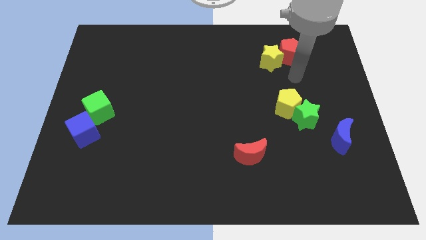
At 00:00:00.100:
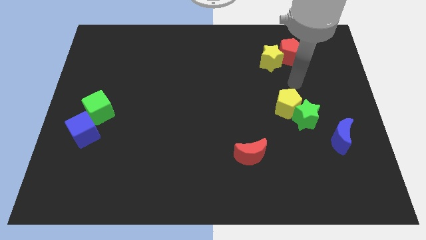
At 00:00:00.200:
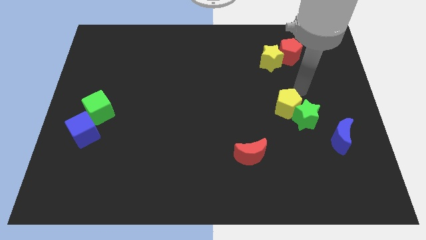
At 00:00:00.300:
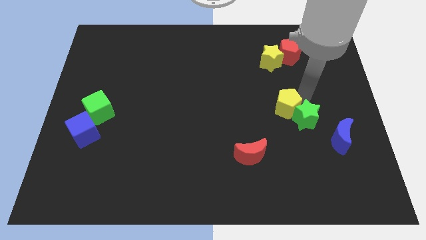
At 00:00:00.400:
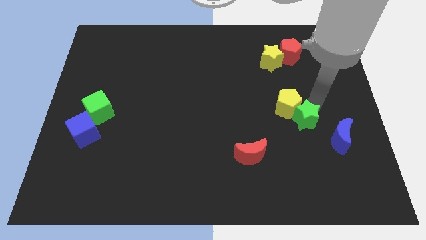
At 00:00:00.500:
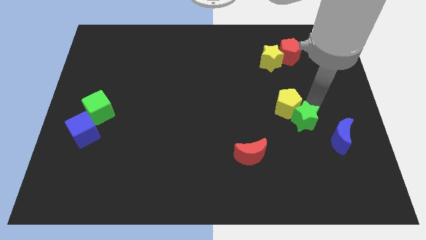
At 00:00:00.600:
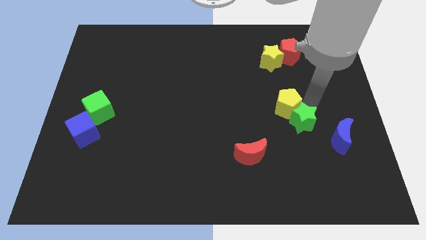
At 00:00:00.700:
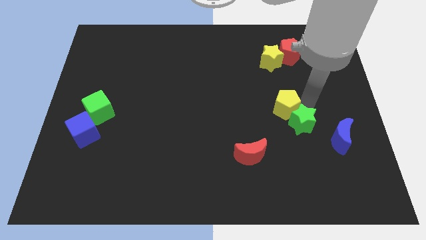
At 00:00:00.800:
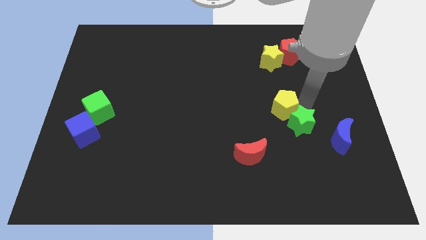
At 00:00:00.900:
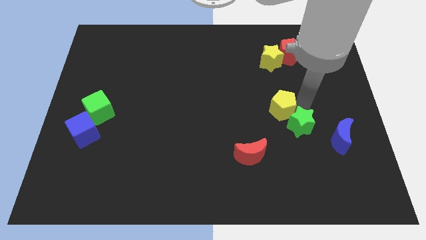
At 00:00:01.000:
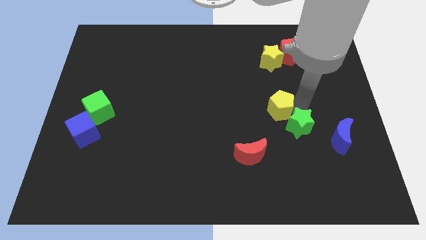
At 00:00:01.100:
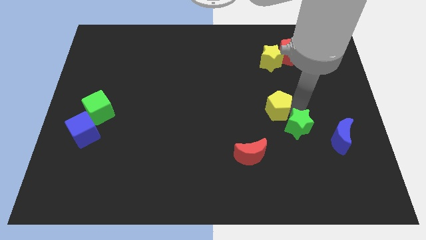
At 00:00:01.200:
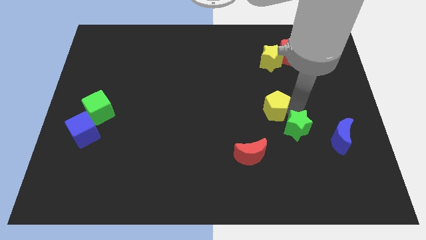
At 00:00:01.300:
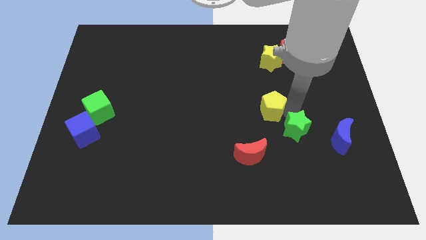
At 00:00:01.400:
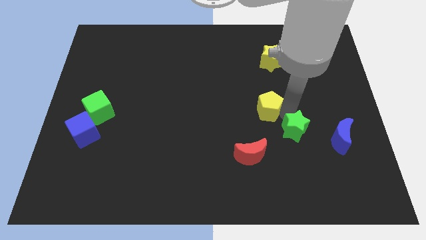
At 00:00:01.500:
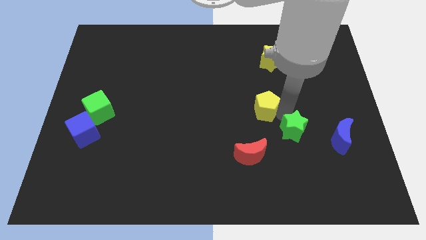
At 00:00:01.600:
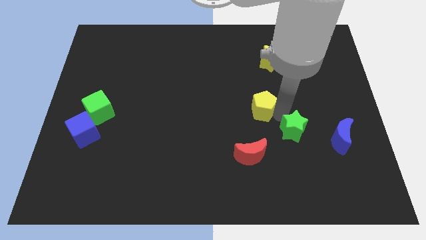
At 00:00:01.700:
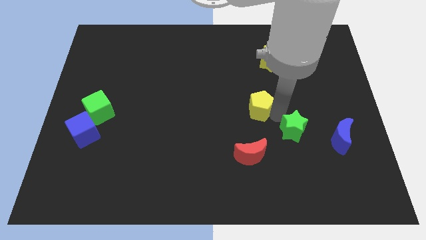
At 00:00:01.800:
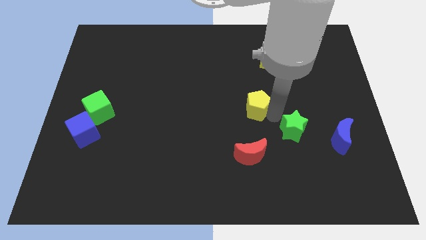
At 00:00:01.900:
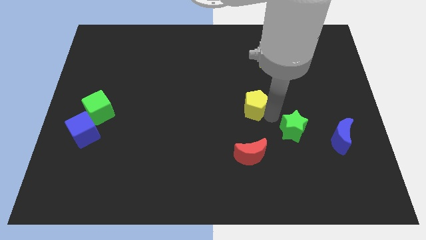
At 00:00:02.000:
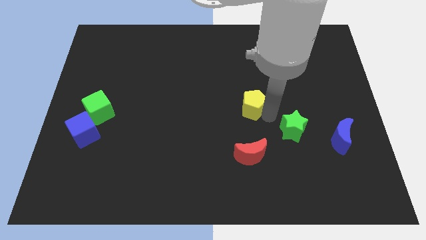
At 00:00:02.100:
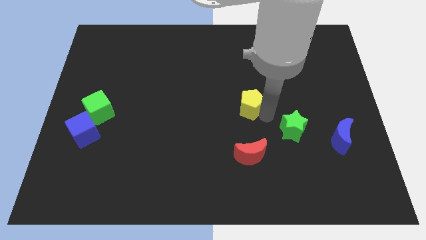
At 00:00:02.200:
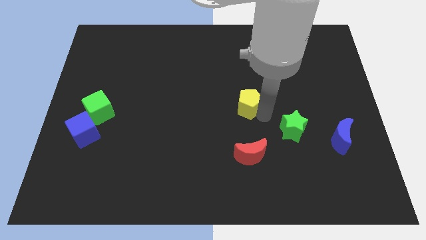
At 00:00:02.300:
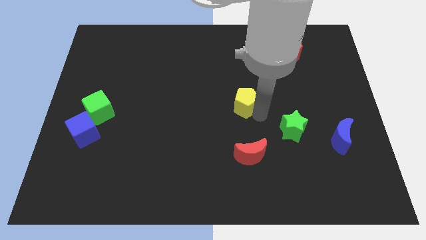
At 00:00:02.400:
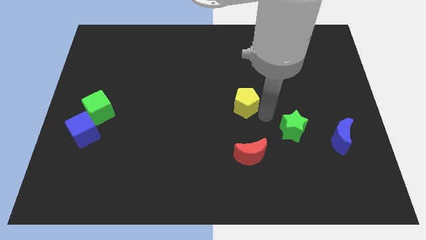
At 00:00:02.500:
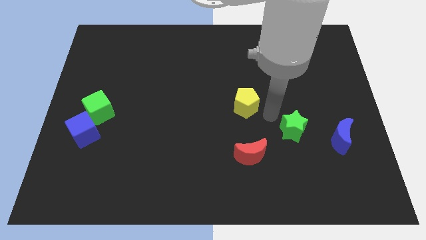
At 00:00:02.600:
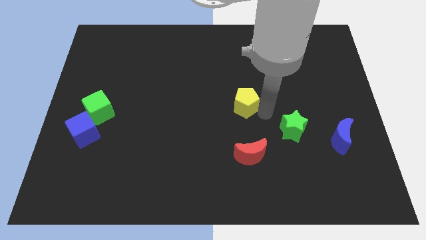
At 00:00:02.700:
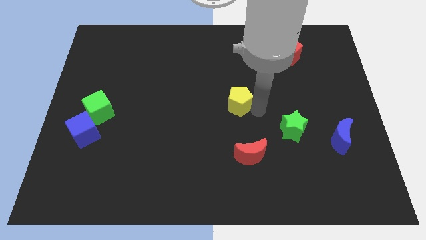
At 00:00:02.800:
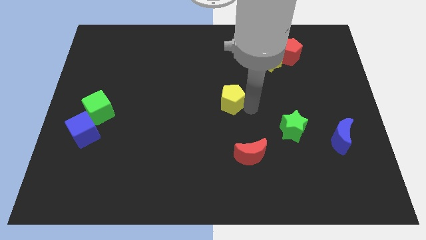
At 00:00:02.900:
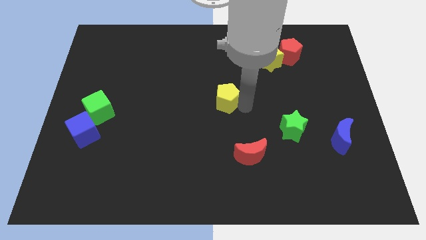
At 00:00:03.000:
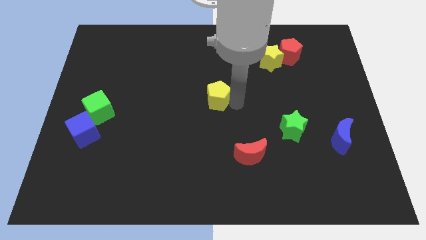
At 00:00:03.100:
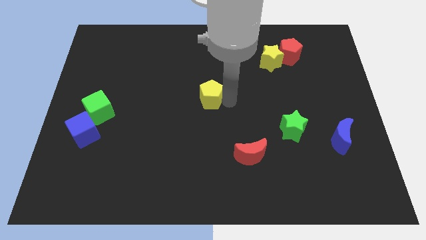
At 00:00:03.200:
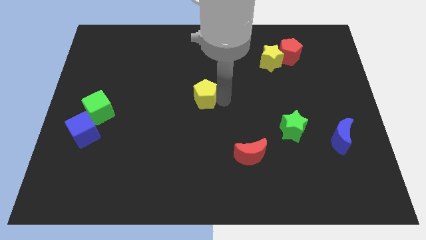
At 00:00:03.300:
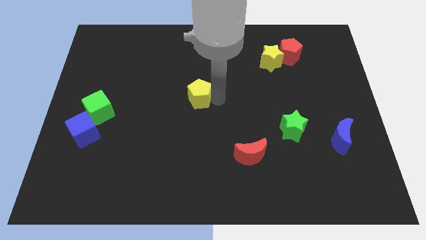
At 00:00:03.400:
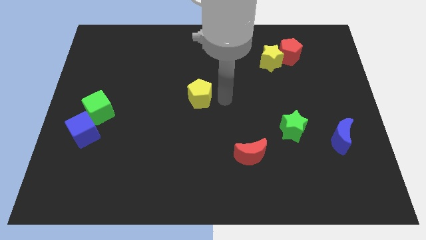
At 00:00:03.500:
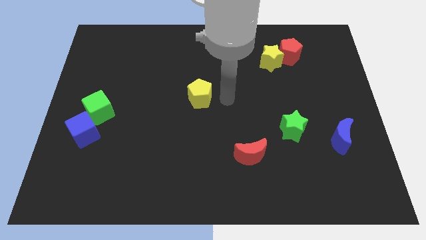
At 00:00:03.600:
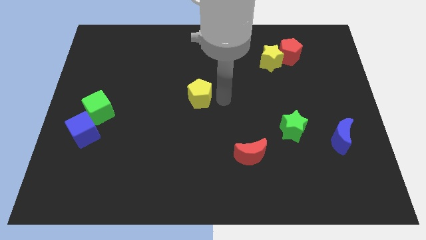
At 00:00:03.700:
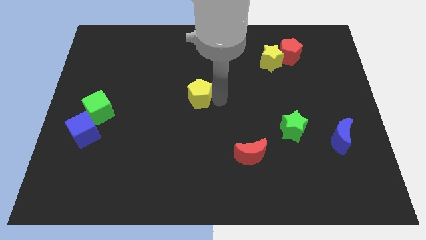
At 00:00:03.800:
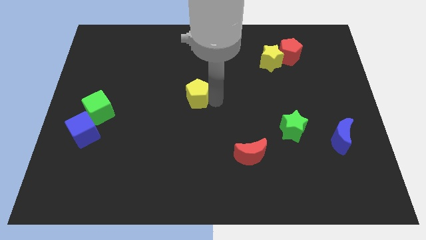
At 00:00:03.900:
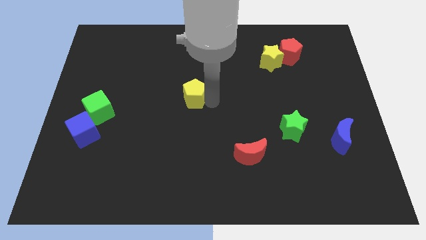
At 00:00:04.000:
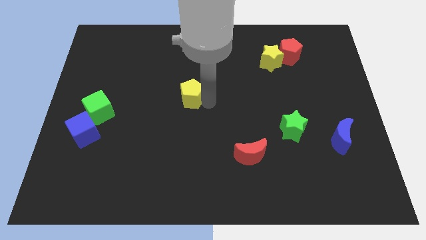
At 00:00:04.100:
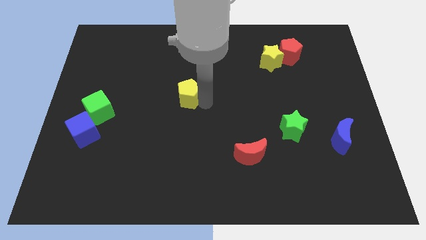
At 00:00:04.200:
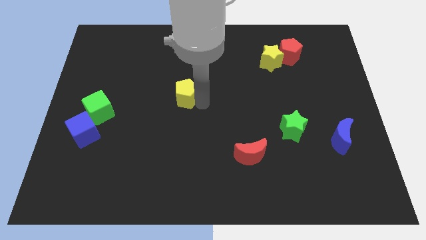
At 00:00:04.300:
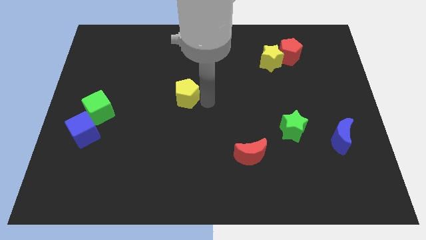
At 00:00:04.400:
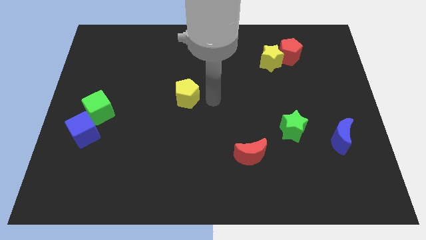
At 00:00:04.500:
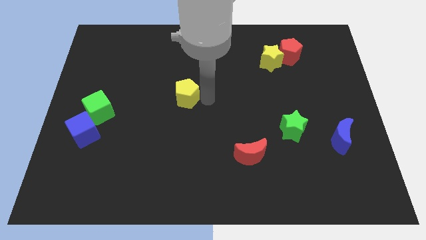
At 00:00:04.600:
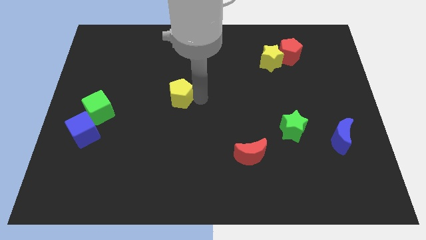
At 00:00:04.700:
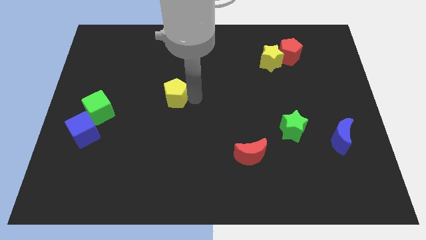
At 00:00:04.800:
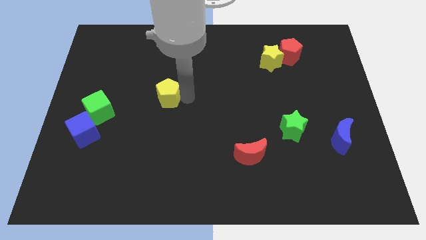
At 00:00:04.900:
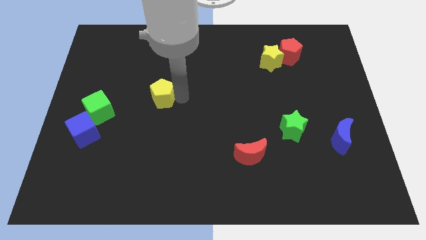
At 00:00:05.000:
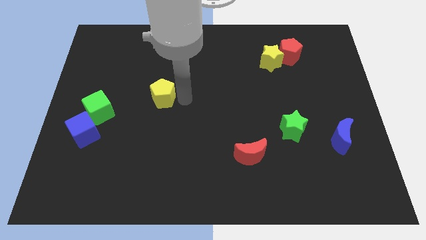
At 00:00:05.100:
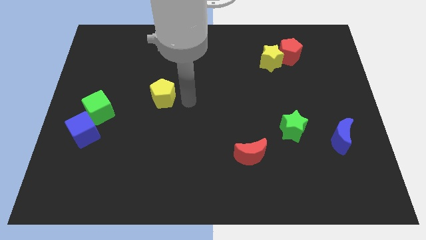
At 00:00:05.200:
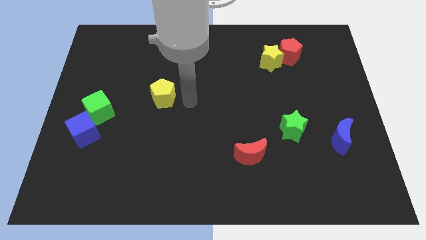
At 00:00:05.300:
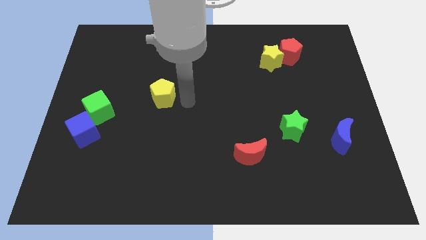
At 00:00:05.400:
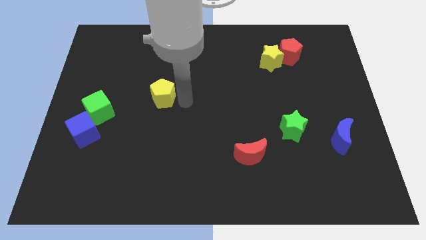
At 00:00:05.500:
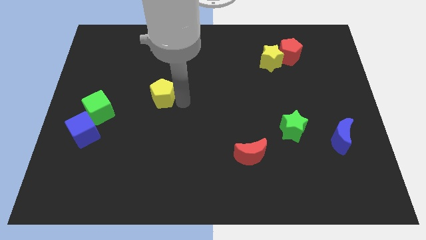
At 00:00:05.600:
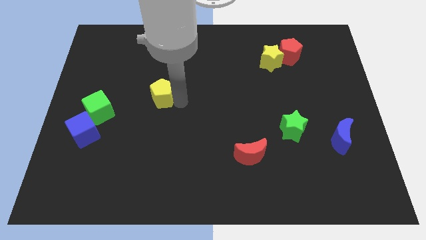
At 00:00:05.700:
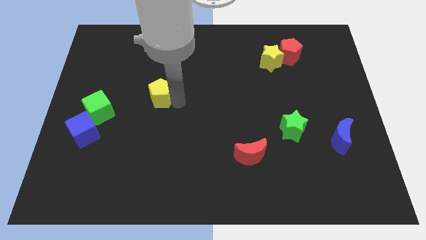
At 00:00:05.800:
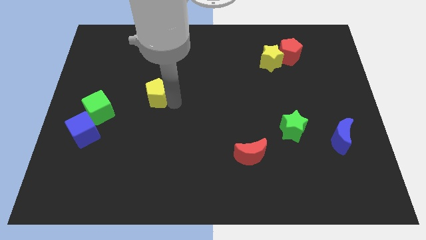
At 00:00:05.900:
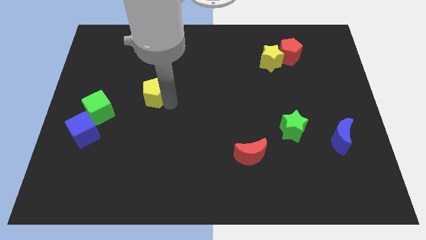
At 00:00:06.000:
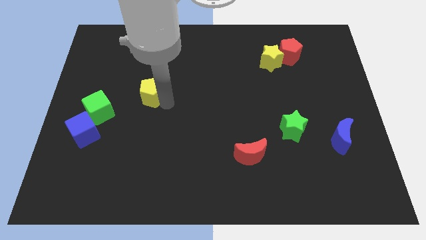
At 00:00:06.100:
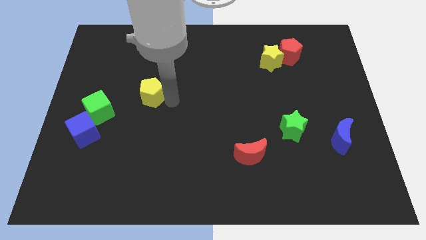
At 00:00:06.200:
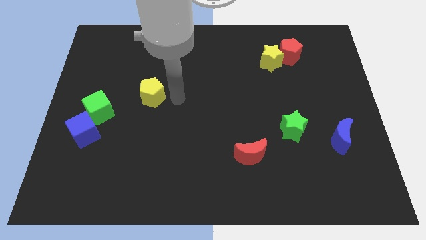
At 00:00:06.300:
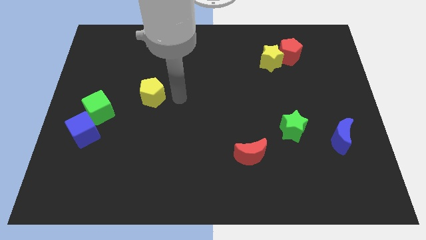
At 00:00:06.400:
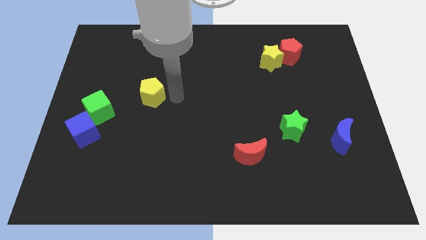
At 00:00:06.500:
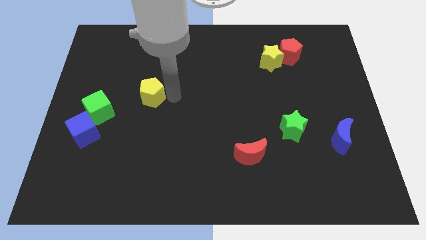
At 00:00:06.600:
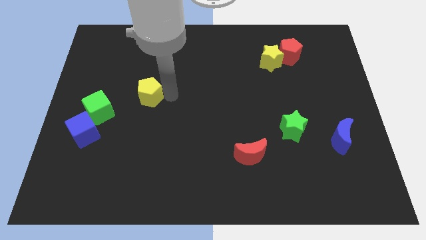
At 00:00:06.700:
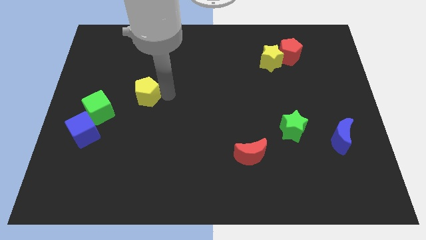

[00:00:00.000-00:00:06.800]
put the yellow pentagon diagonally up and to the right of the green cube
